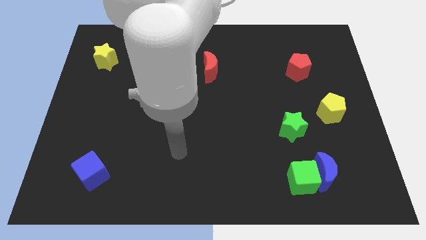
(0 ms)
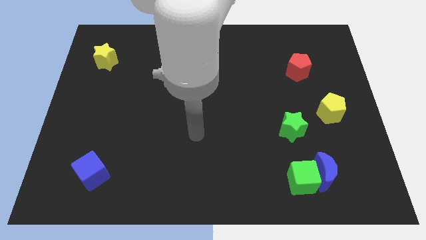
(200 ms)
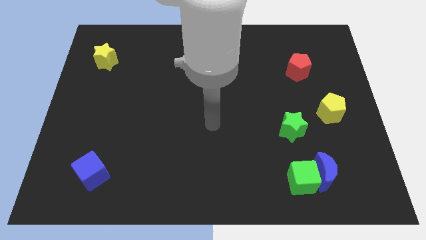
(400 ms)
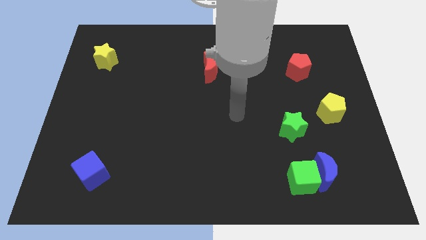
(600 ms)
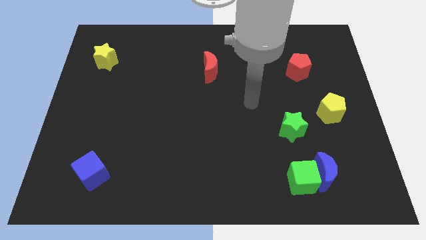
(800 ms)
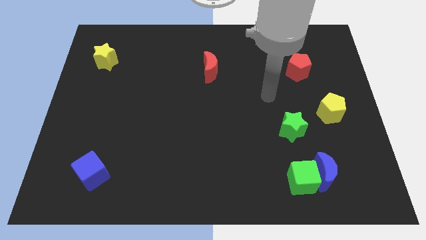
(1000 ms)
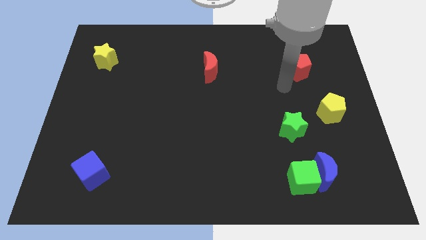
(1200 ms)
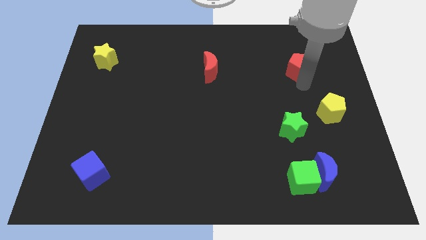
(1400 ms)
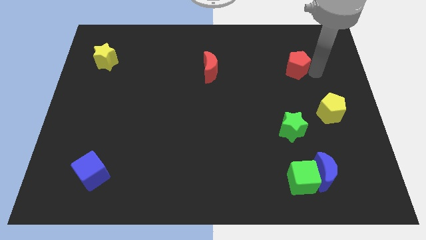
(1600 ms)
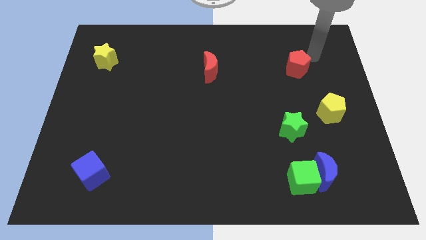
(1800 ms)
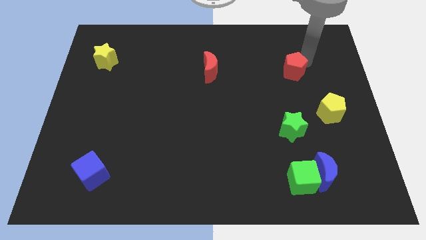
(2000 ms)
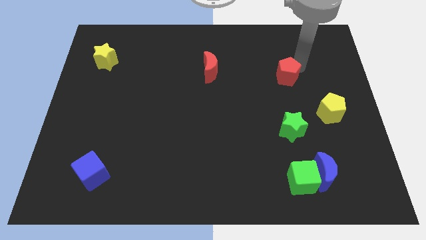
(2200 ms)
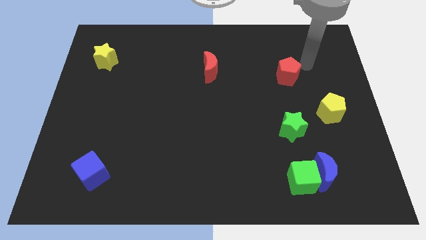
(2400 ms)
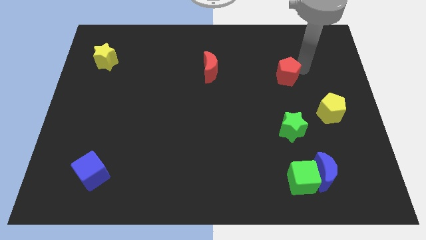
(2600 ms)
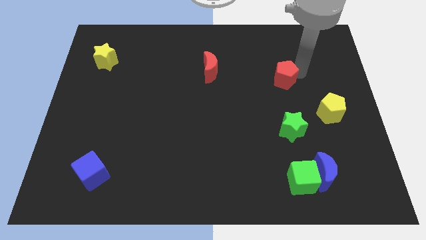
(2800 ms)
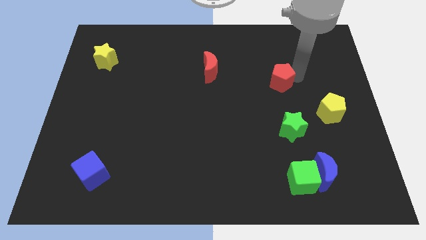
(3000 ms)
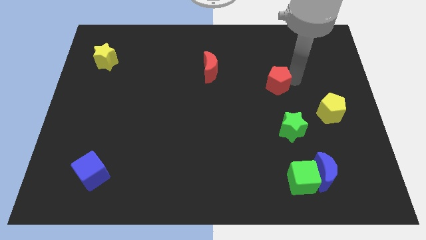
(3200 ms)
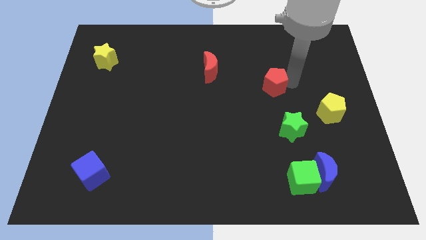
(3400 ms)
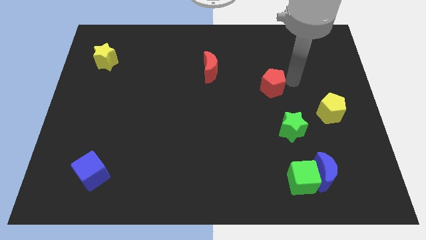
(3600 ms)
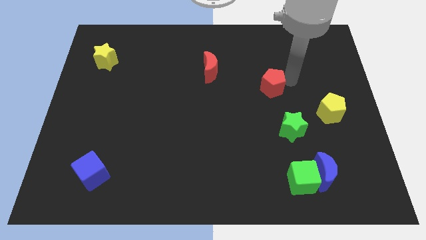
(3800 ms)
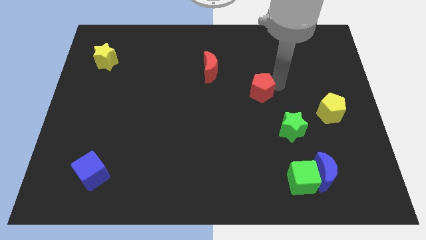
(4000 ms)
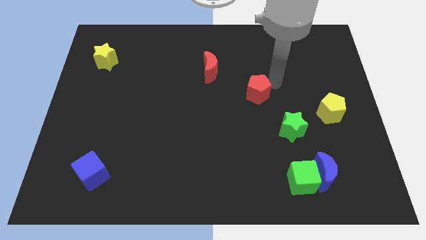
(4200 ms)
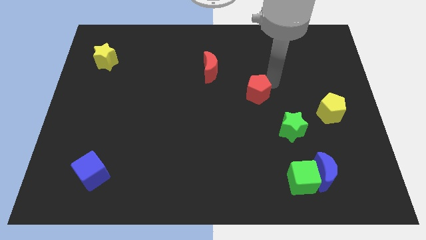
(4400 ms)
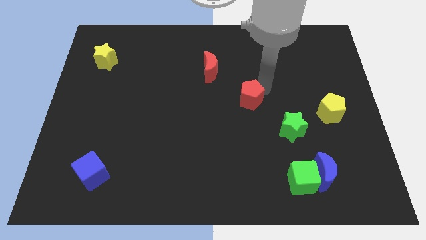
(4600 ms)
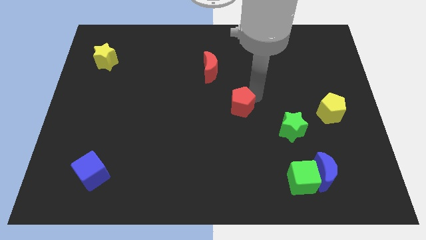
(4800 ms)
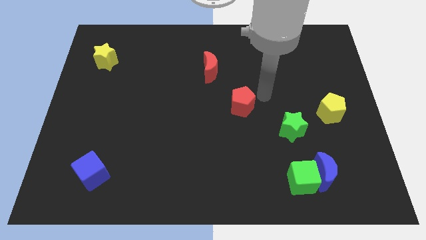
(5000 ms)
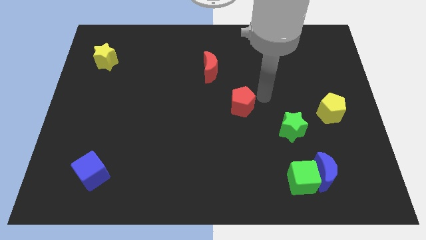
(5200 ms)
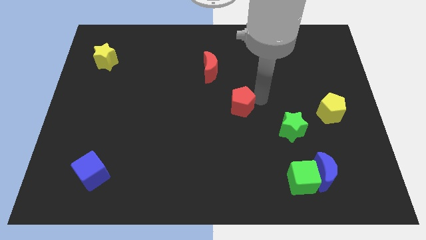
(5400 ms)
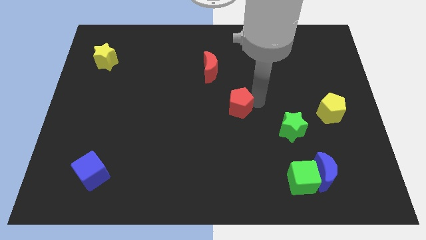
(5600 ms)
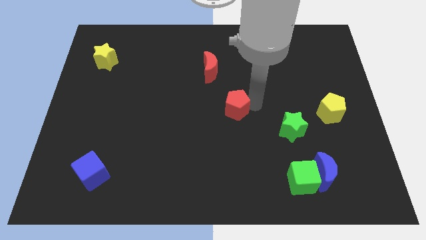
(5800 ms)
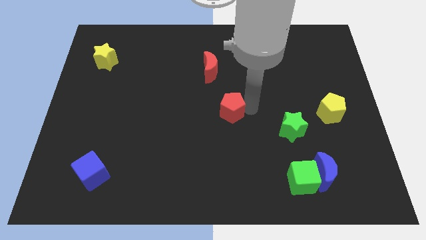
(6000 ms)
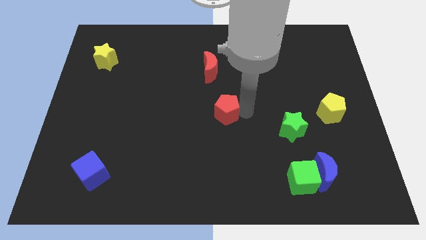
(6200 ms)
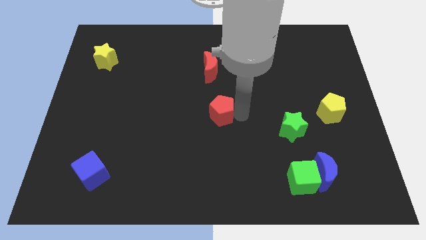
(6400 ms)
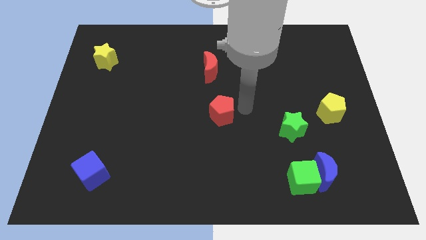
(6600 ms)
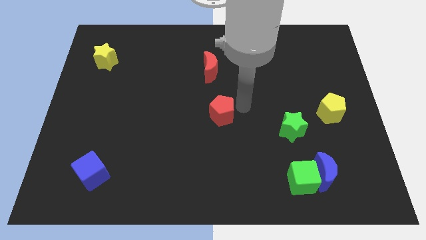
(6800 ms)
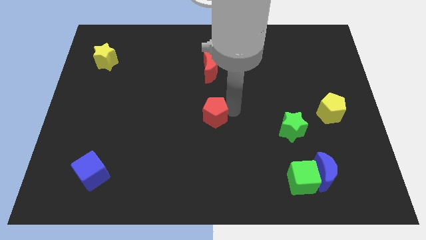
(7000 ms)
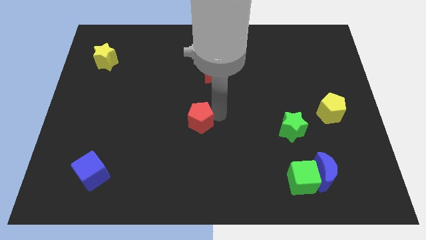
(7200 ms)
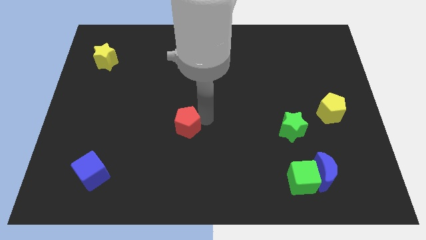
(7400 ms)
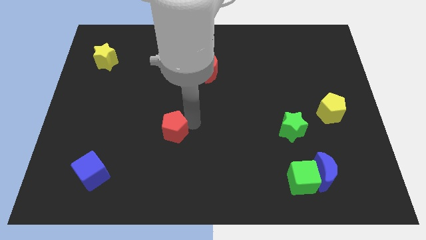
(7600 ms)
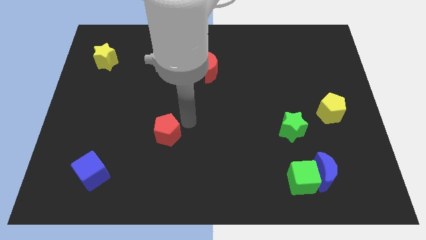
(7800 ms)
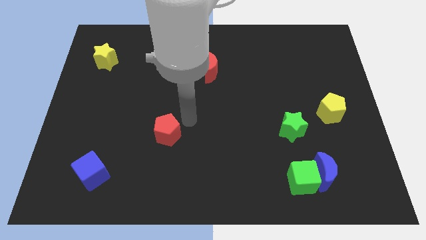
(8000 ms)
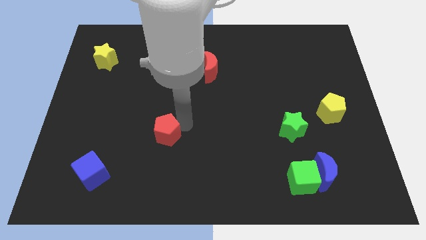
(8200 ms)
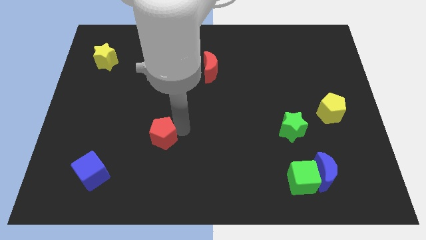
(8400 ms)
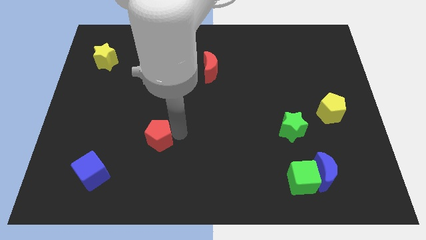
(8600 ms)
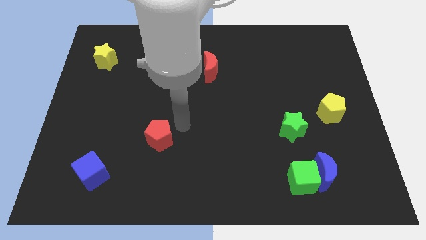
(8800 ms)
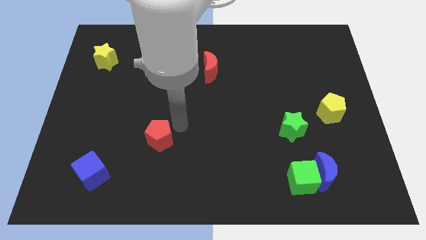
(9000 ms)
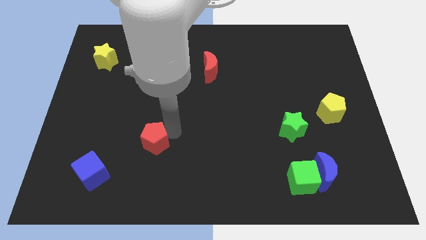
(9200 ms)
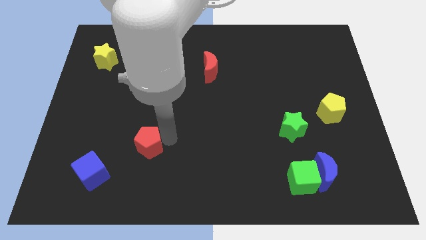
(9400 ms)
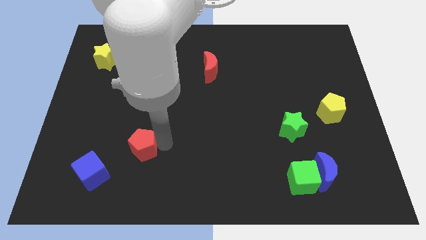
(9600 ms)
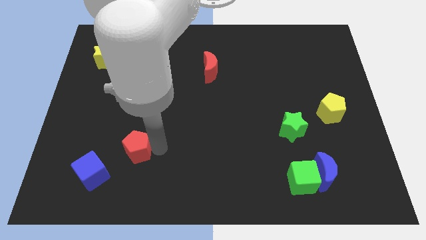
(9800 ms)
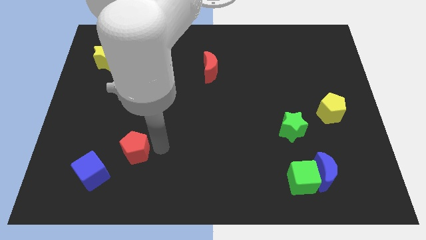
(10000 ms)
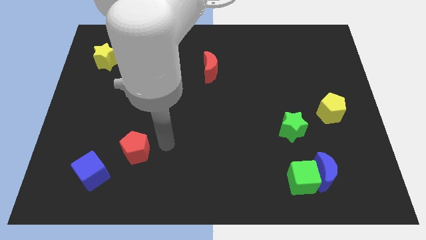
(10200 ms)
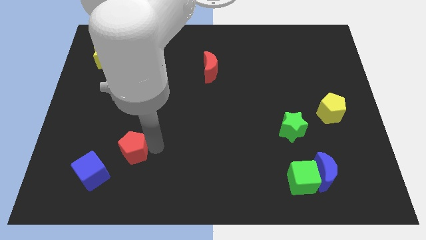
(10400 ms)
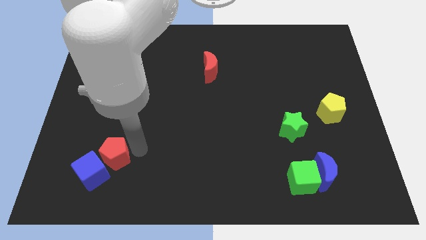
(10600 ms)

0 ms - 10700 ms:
move the red pentagon towards the blue cube

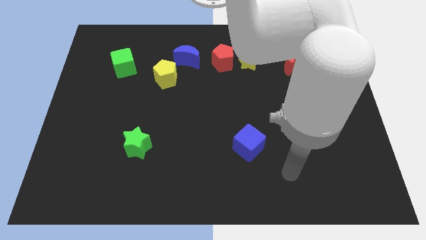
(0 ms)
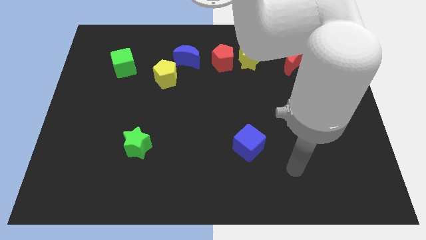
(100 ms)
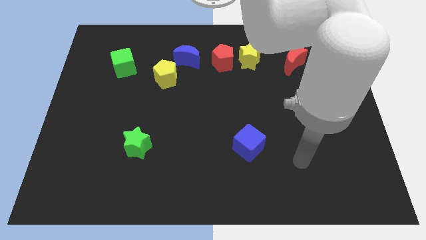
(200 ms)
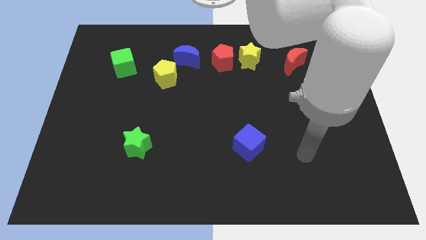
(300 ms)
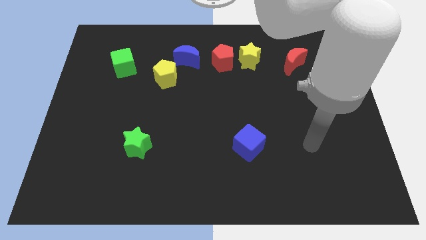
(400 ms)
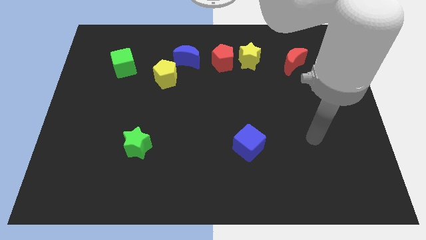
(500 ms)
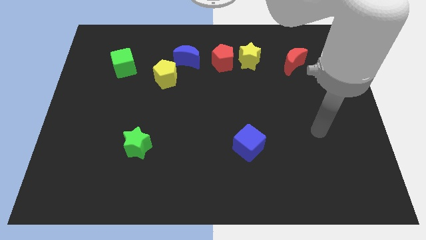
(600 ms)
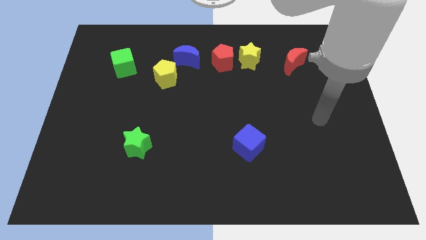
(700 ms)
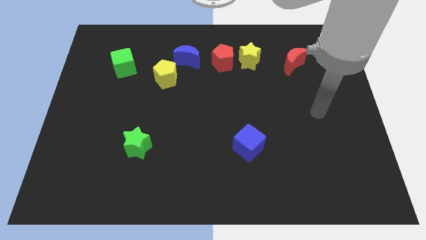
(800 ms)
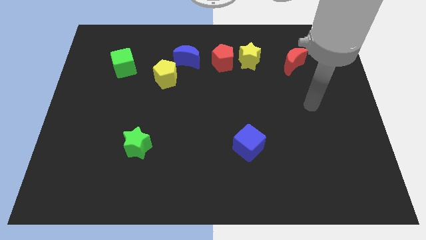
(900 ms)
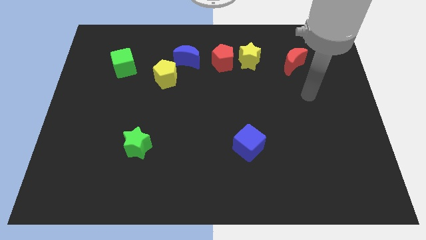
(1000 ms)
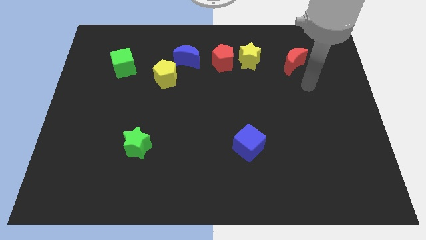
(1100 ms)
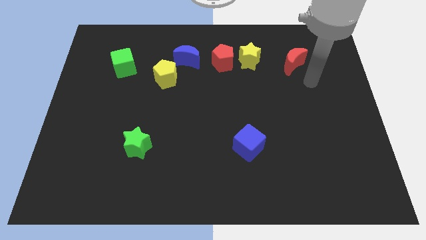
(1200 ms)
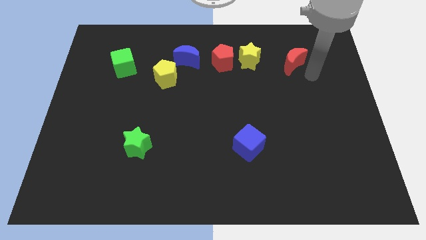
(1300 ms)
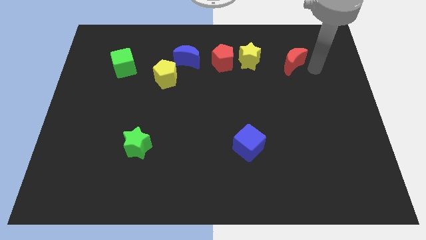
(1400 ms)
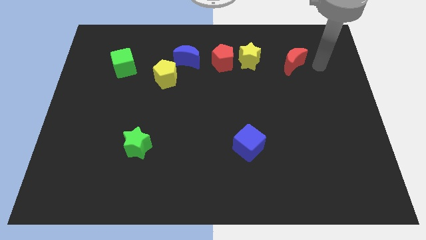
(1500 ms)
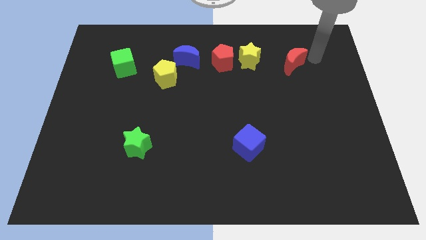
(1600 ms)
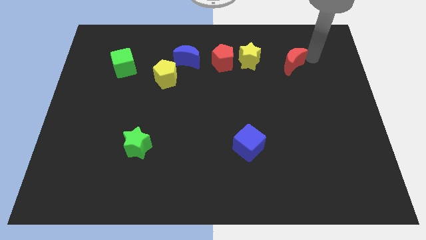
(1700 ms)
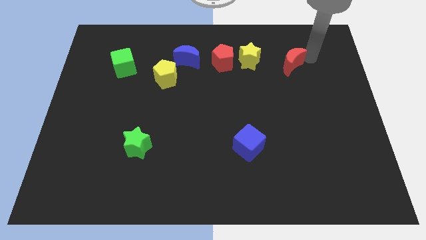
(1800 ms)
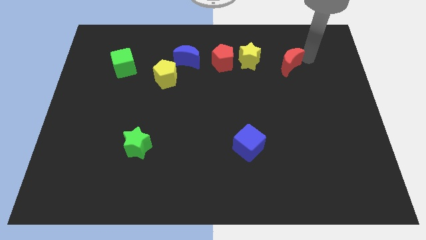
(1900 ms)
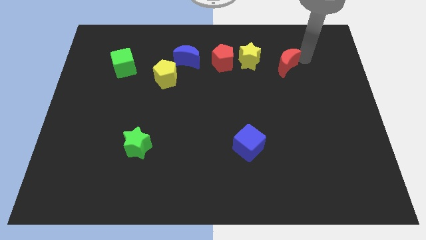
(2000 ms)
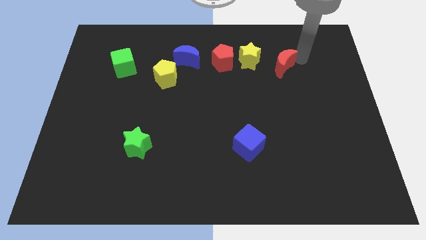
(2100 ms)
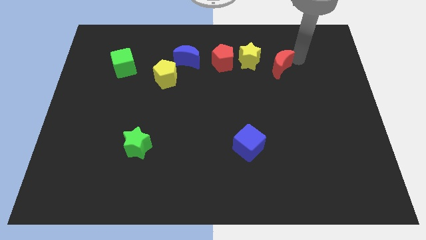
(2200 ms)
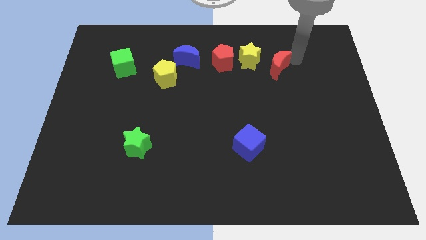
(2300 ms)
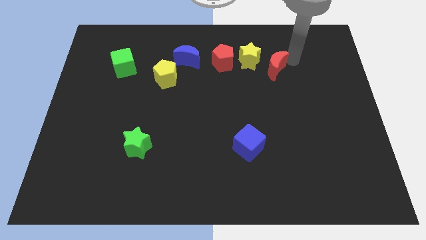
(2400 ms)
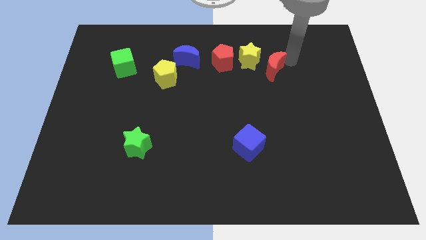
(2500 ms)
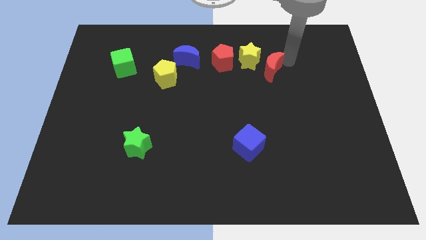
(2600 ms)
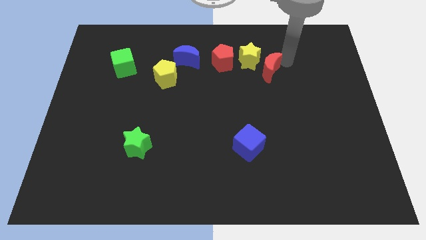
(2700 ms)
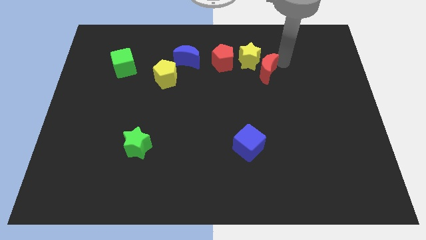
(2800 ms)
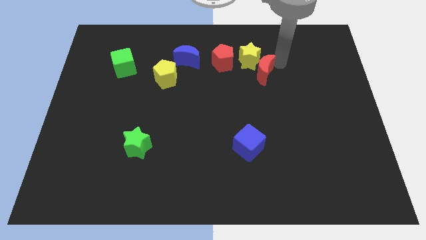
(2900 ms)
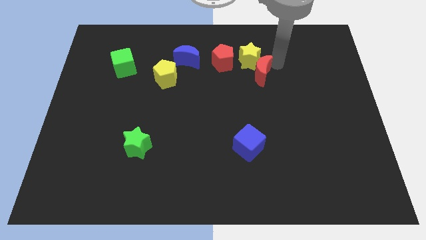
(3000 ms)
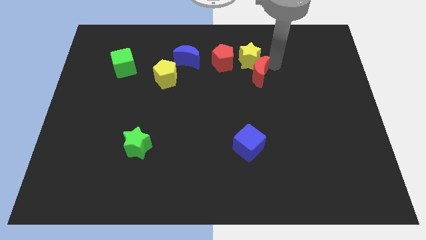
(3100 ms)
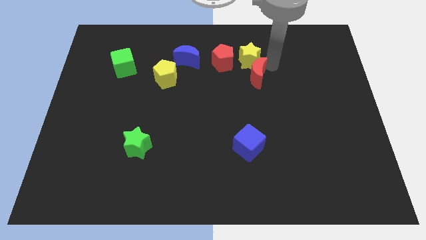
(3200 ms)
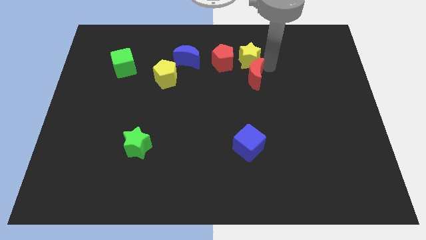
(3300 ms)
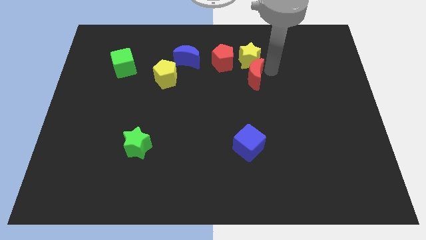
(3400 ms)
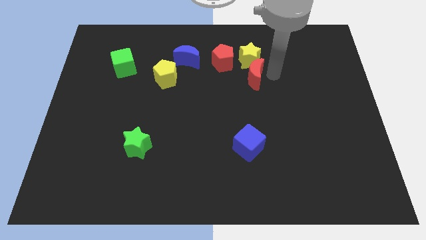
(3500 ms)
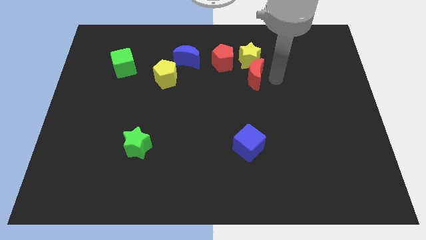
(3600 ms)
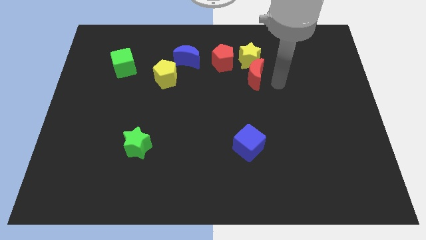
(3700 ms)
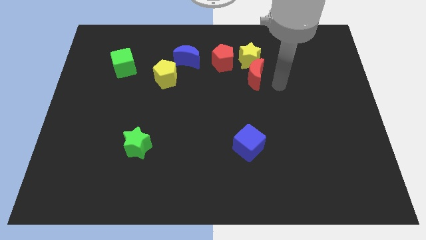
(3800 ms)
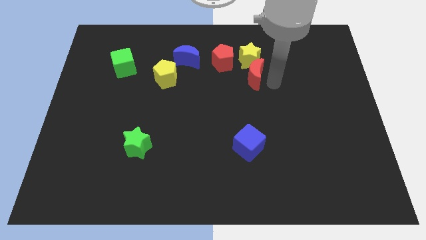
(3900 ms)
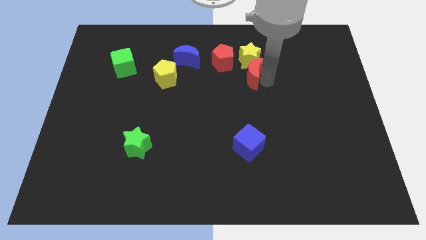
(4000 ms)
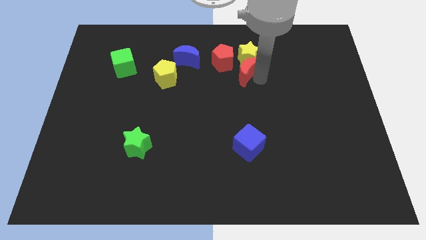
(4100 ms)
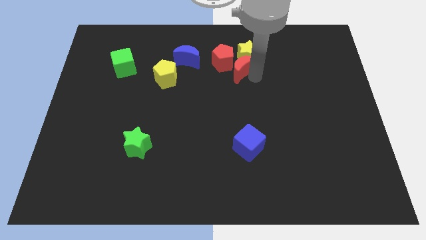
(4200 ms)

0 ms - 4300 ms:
put the red moon towards the red pentagon
